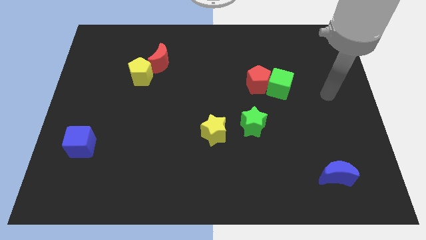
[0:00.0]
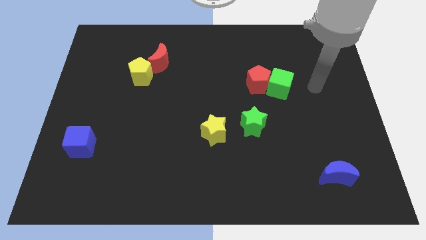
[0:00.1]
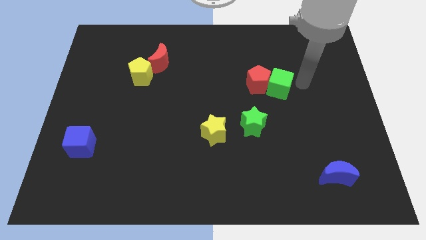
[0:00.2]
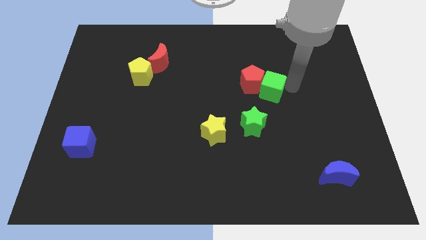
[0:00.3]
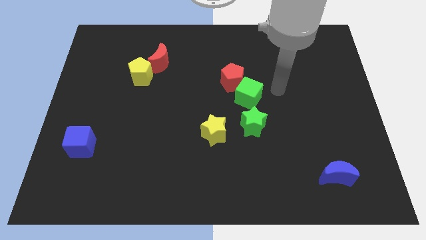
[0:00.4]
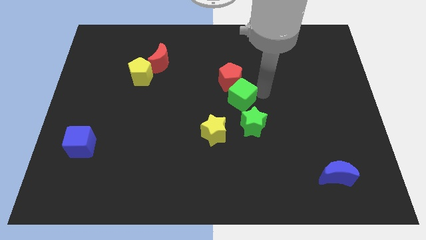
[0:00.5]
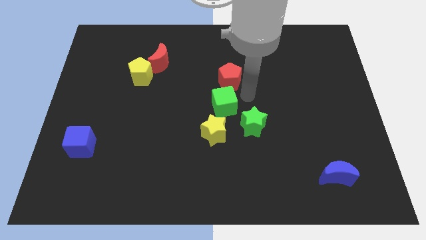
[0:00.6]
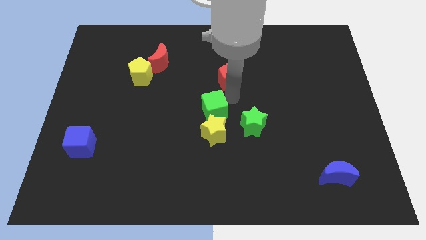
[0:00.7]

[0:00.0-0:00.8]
pull the red pentagon apart from the green cube

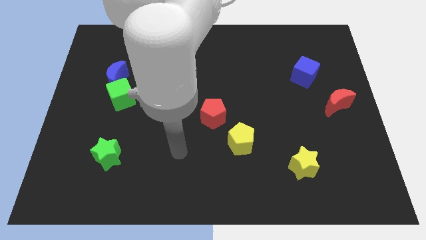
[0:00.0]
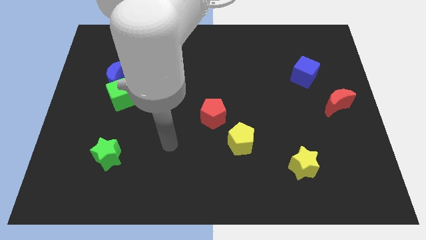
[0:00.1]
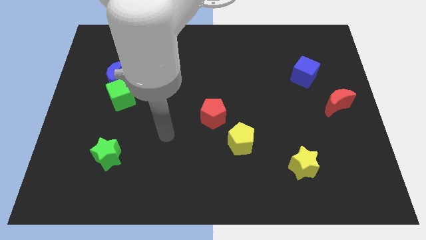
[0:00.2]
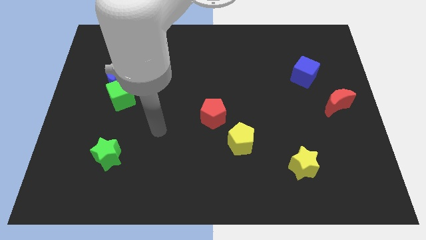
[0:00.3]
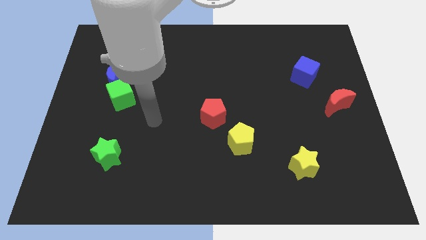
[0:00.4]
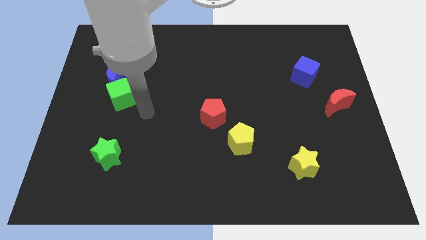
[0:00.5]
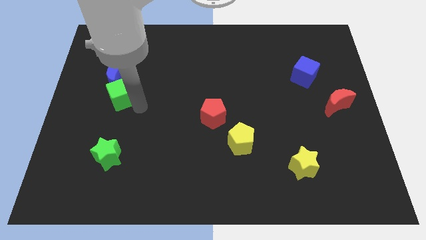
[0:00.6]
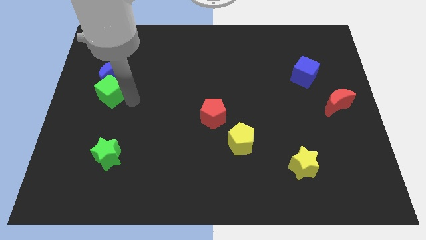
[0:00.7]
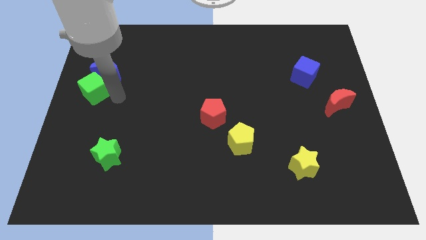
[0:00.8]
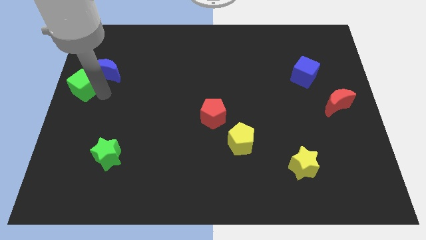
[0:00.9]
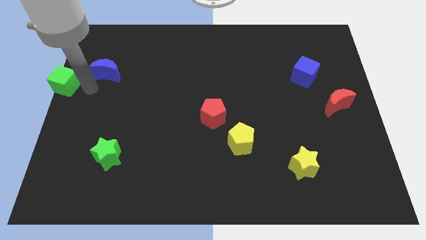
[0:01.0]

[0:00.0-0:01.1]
pull the blue moon apart from the green cube

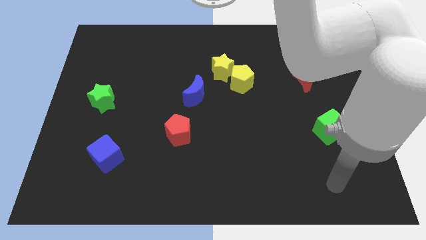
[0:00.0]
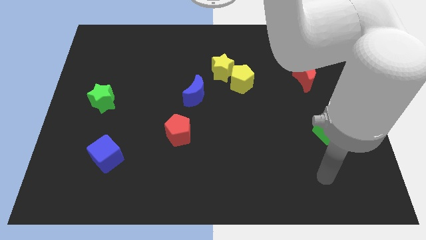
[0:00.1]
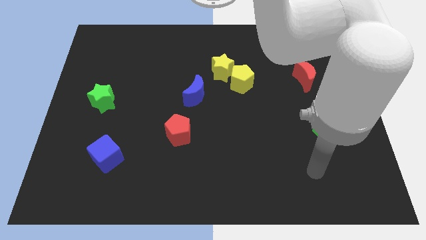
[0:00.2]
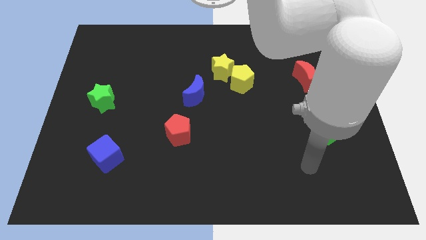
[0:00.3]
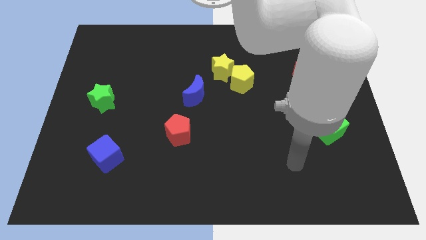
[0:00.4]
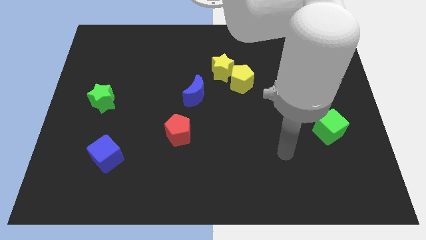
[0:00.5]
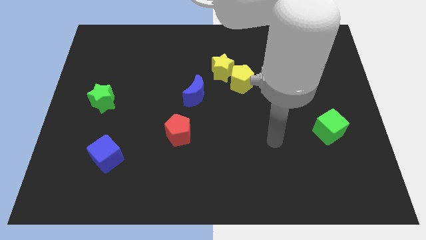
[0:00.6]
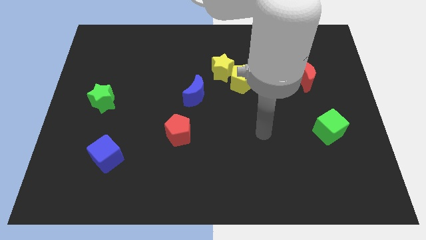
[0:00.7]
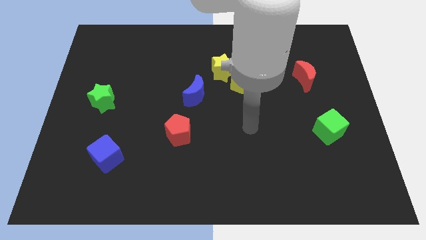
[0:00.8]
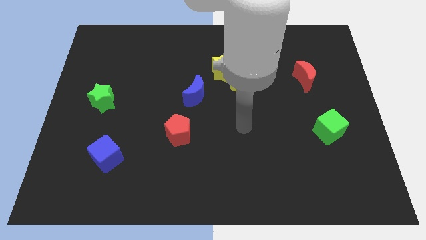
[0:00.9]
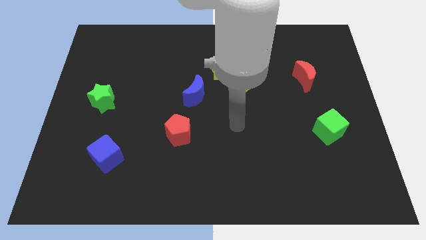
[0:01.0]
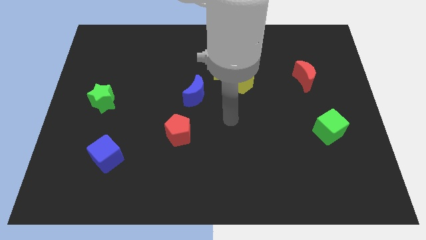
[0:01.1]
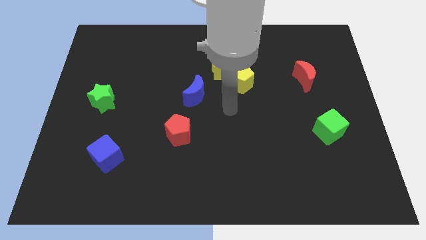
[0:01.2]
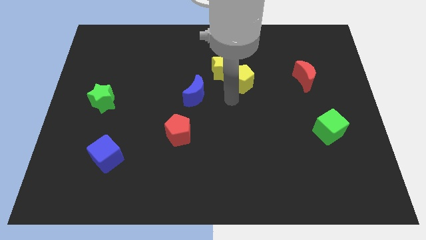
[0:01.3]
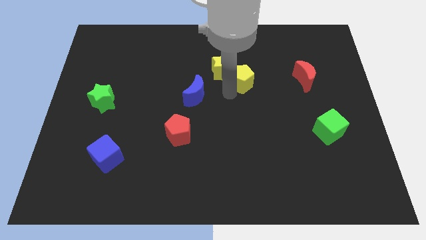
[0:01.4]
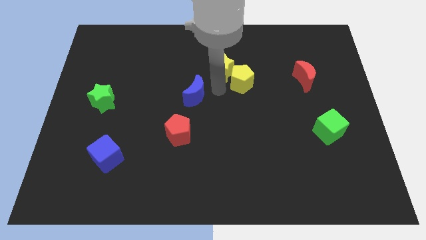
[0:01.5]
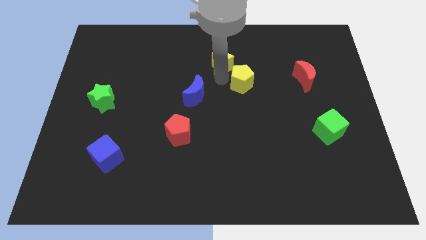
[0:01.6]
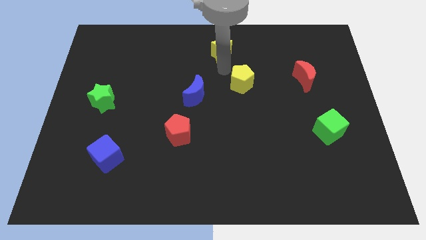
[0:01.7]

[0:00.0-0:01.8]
separate the yellow pentagon from the yellow star

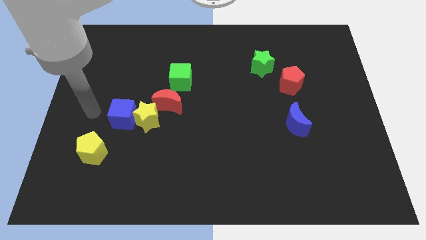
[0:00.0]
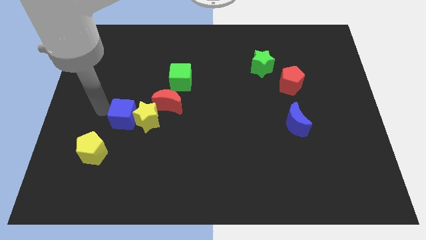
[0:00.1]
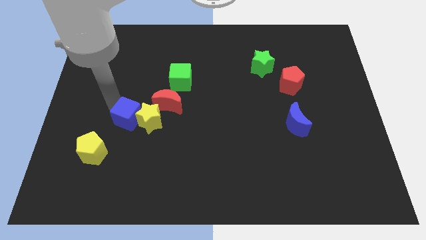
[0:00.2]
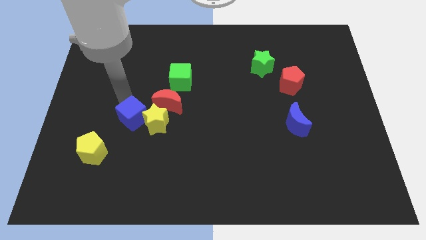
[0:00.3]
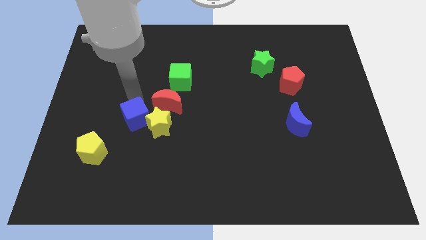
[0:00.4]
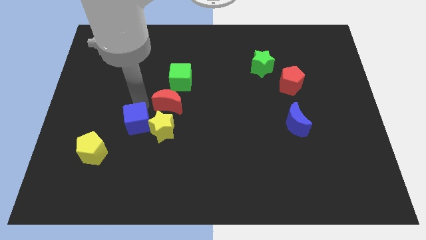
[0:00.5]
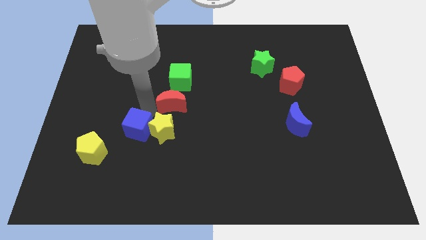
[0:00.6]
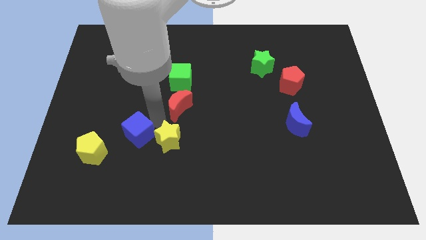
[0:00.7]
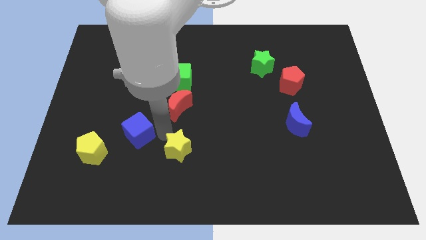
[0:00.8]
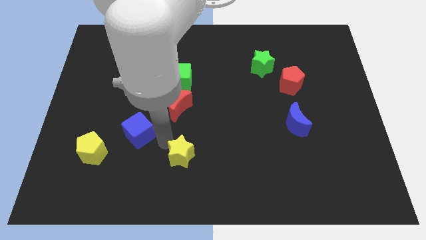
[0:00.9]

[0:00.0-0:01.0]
separate the blue cube from the yellow star

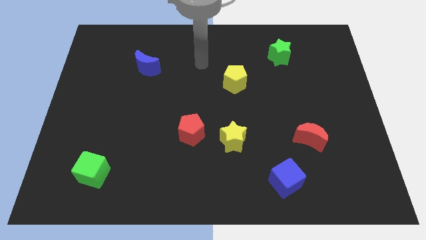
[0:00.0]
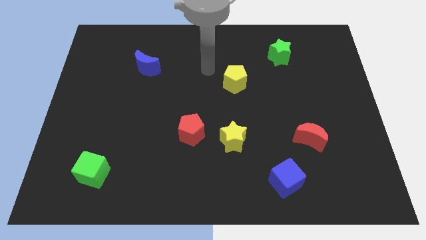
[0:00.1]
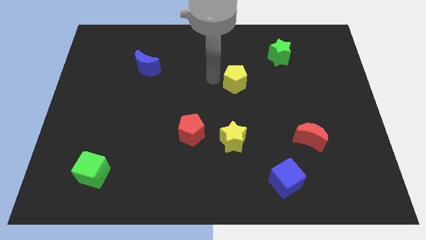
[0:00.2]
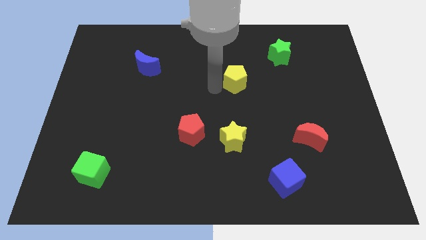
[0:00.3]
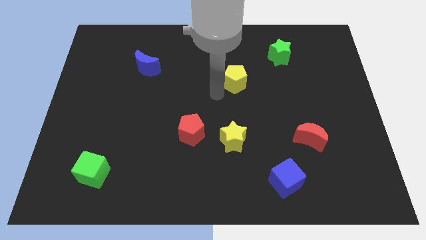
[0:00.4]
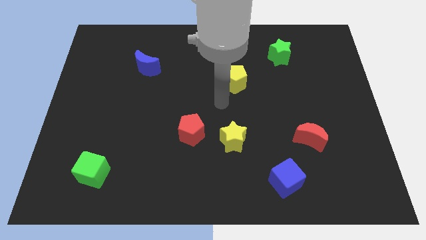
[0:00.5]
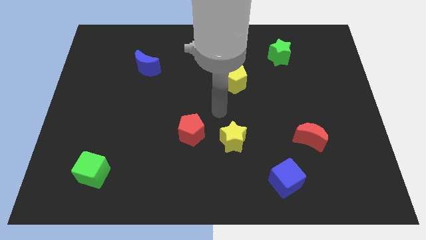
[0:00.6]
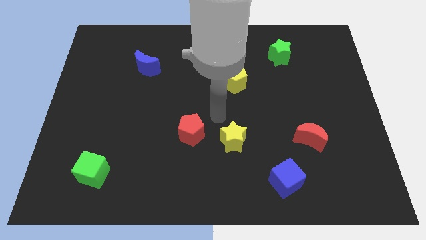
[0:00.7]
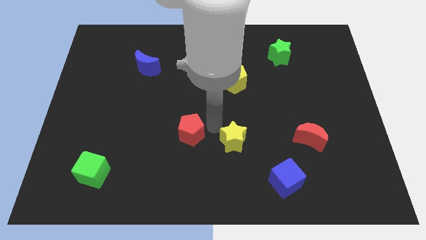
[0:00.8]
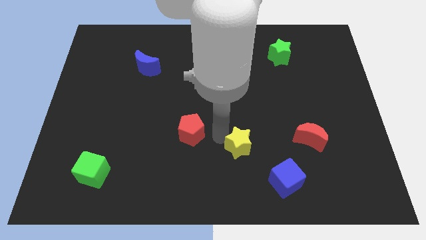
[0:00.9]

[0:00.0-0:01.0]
move the red pentagon away from the yellow star

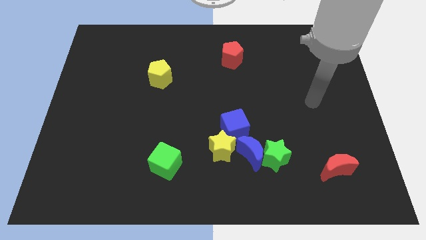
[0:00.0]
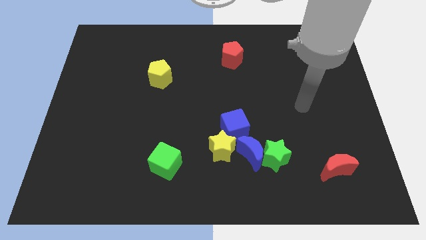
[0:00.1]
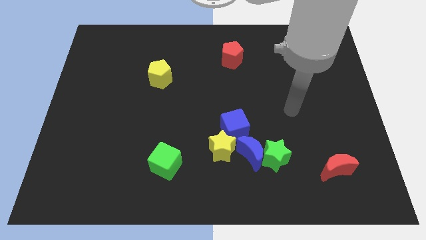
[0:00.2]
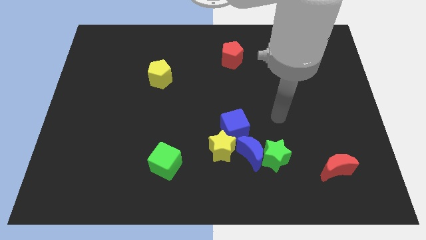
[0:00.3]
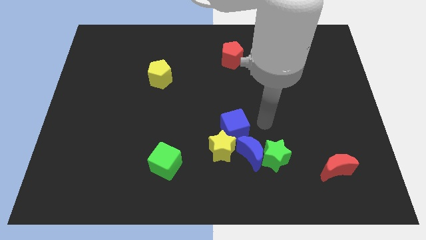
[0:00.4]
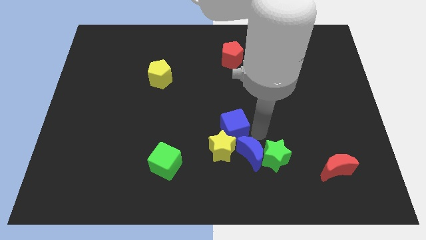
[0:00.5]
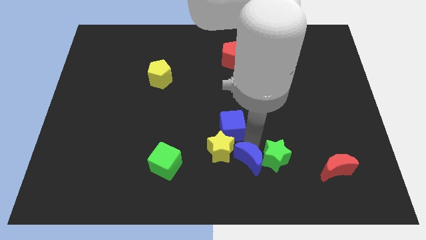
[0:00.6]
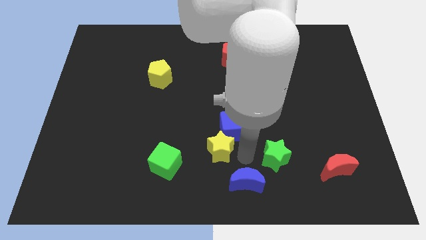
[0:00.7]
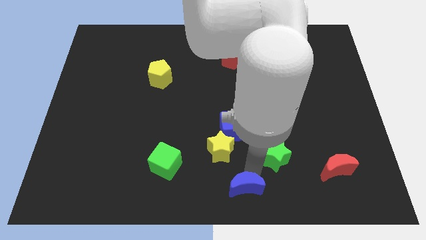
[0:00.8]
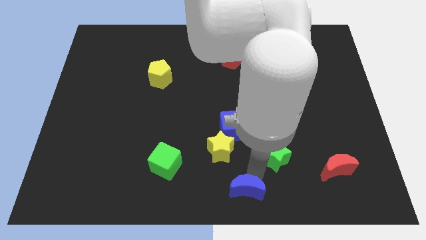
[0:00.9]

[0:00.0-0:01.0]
move the green star away from the blue moon

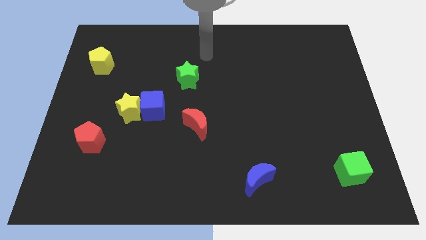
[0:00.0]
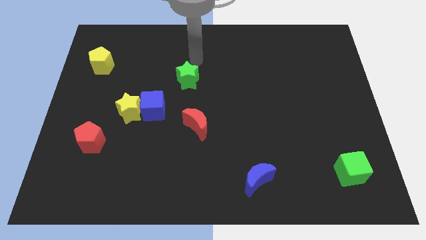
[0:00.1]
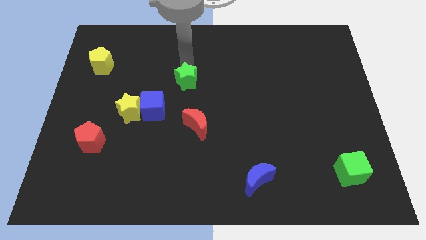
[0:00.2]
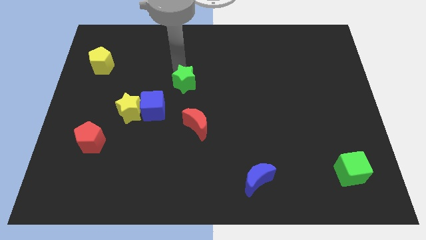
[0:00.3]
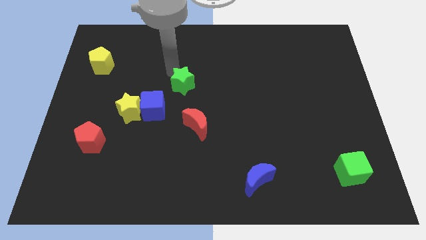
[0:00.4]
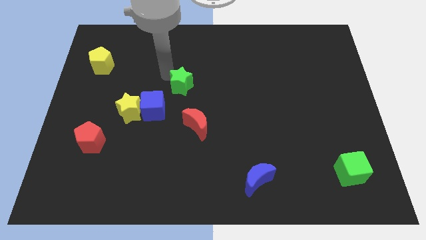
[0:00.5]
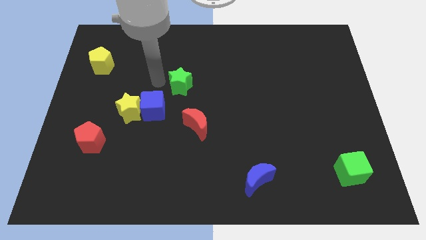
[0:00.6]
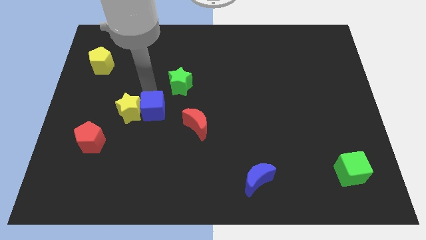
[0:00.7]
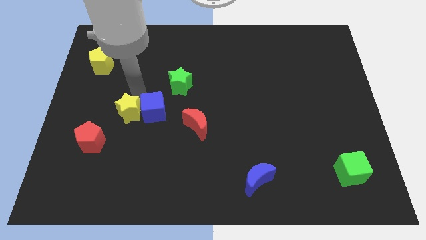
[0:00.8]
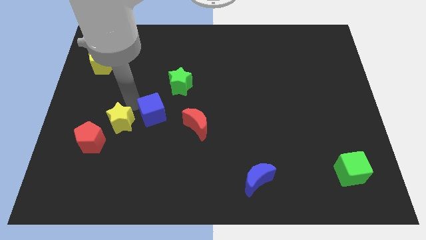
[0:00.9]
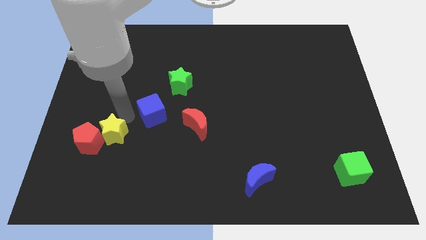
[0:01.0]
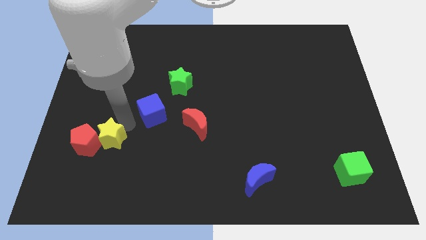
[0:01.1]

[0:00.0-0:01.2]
pull the blue cube apart from the yellow star

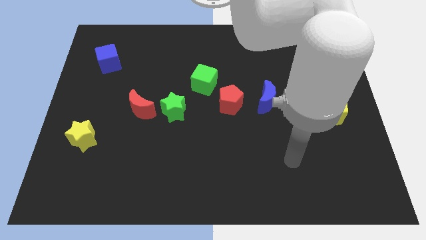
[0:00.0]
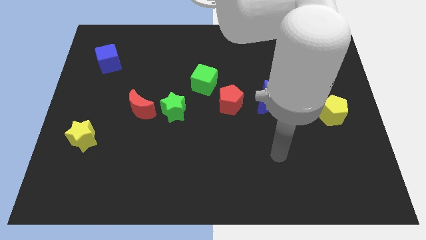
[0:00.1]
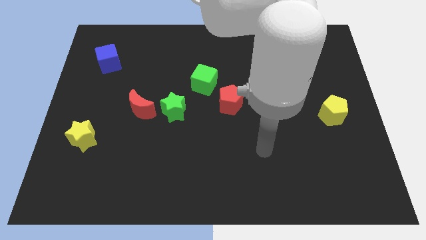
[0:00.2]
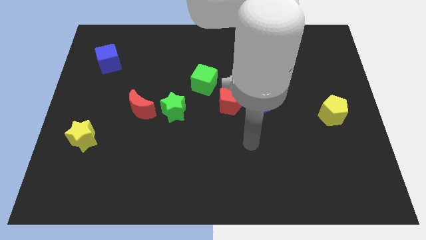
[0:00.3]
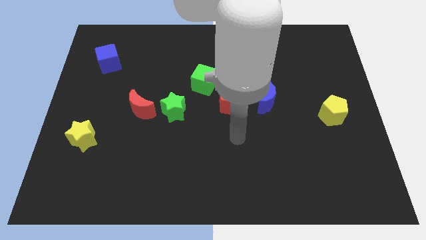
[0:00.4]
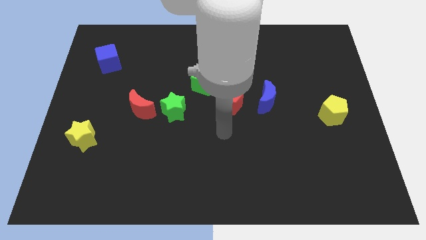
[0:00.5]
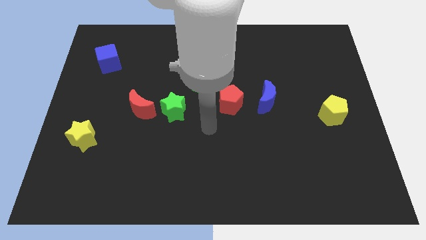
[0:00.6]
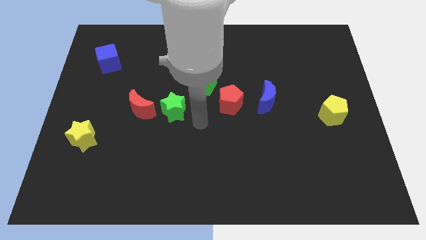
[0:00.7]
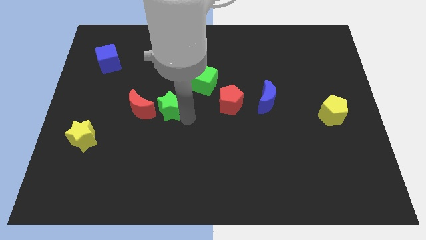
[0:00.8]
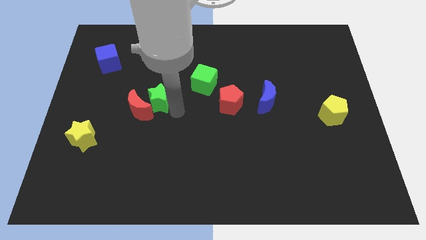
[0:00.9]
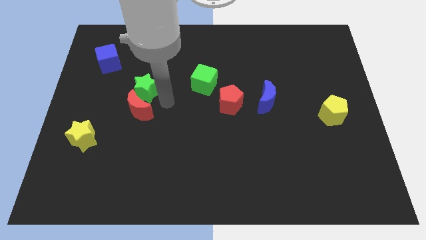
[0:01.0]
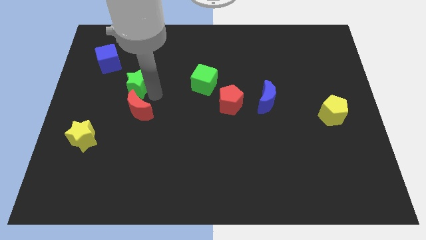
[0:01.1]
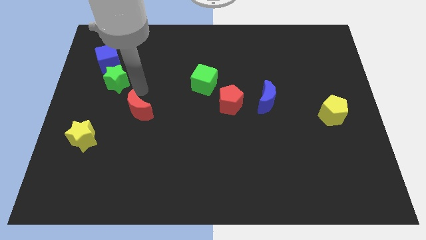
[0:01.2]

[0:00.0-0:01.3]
move the red moon away from the green star
